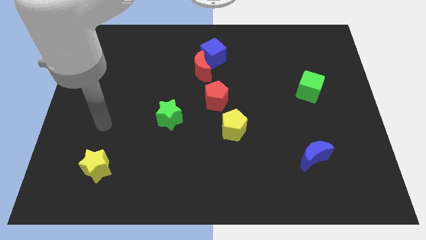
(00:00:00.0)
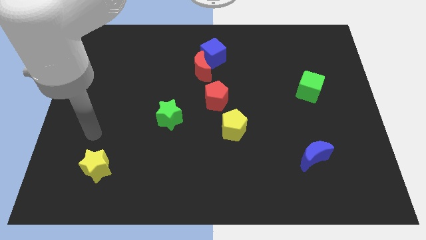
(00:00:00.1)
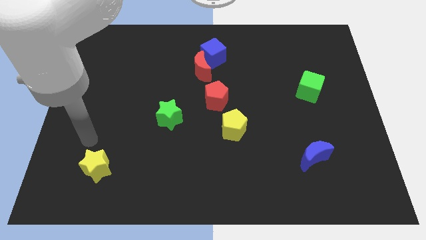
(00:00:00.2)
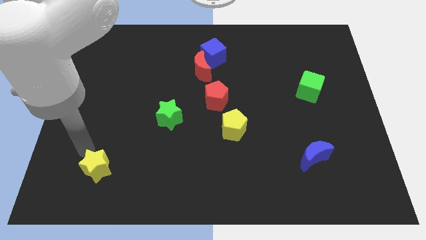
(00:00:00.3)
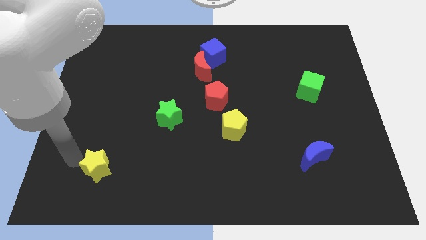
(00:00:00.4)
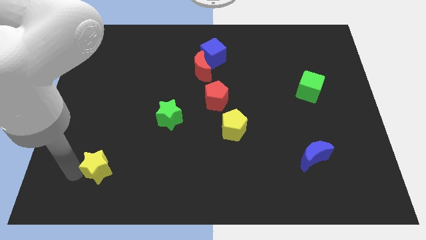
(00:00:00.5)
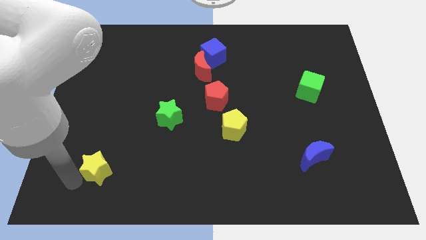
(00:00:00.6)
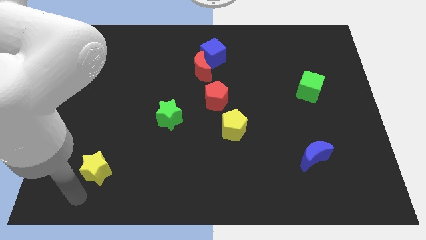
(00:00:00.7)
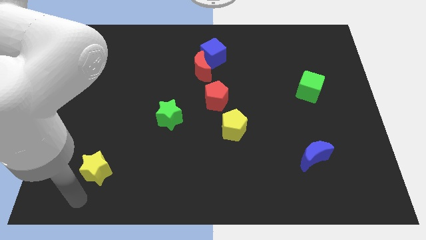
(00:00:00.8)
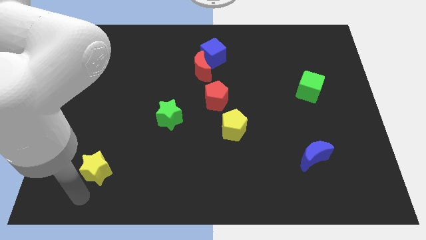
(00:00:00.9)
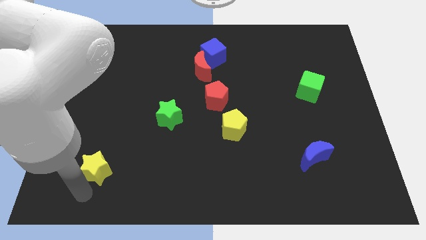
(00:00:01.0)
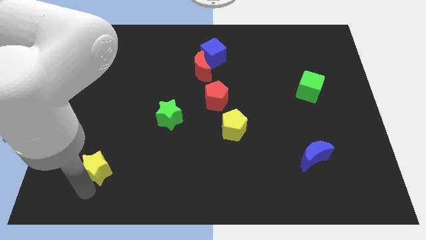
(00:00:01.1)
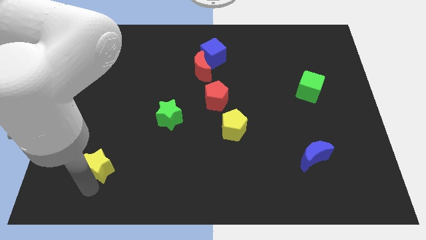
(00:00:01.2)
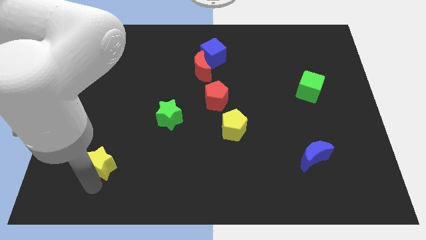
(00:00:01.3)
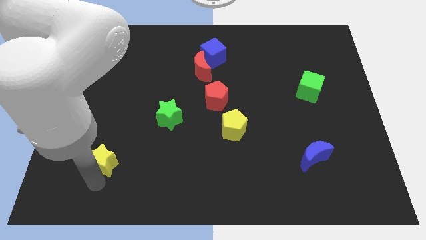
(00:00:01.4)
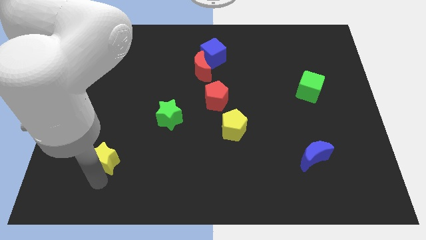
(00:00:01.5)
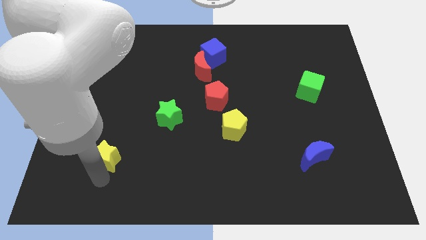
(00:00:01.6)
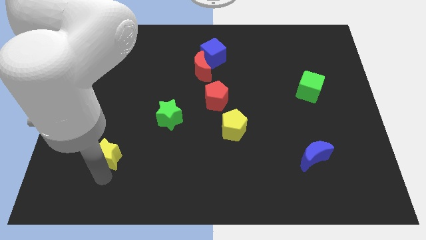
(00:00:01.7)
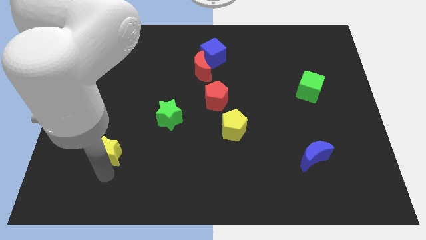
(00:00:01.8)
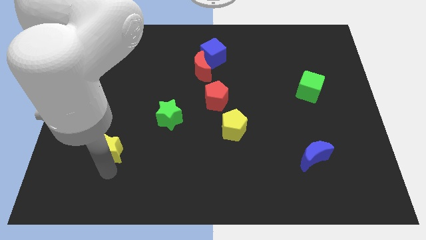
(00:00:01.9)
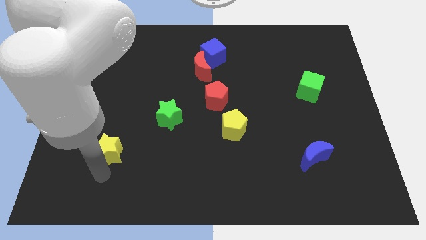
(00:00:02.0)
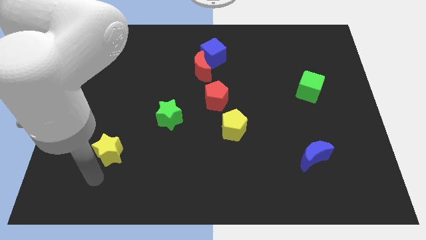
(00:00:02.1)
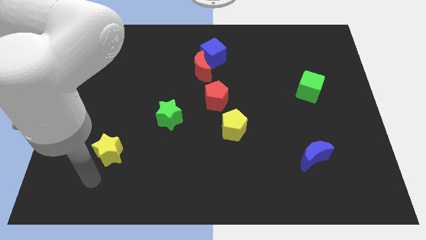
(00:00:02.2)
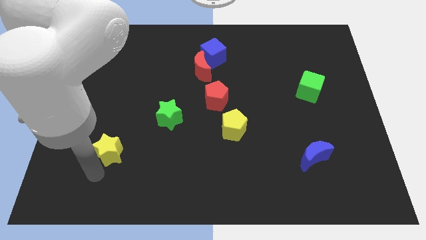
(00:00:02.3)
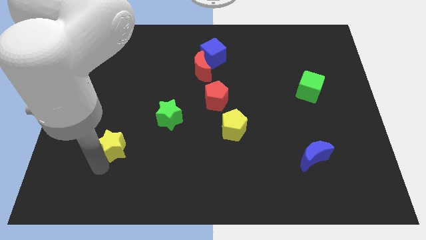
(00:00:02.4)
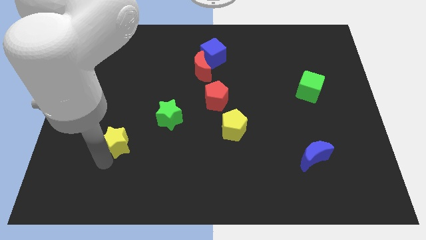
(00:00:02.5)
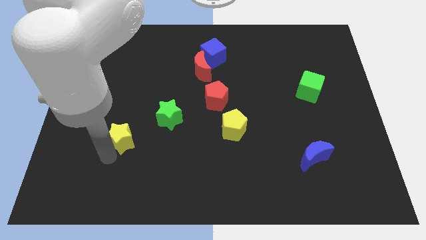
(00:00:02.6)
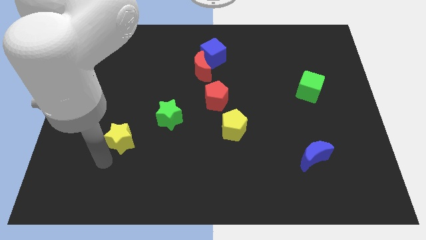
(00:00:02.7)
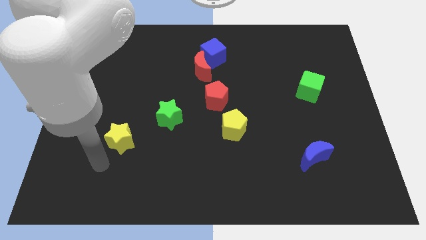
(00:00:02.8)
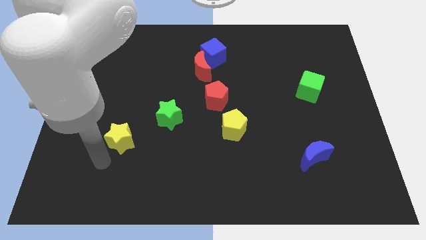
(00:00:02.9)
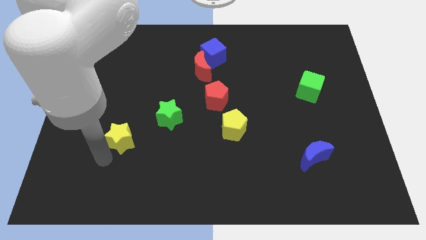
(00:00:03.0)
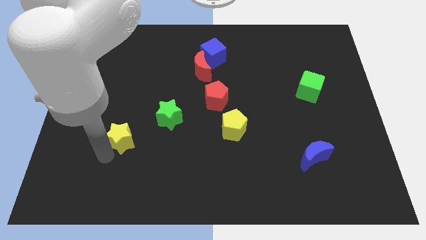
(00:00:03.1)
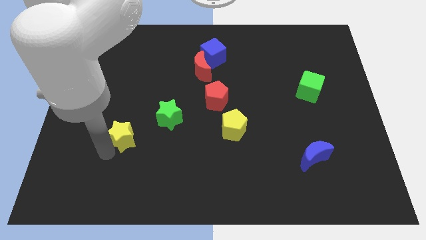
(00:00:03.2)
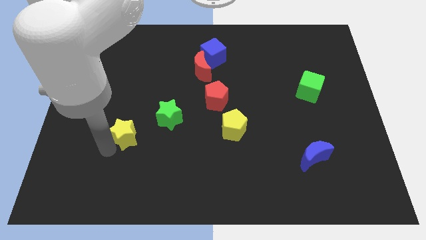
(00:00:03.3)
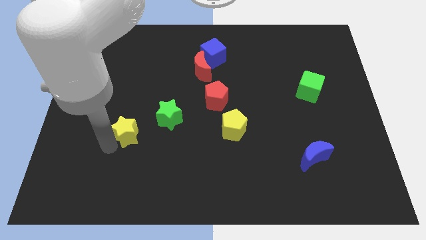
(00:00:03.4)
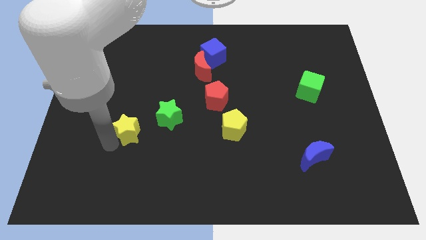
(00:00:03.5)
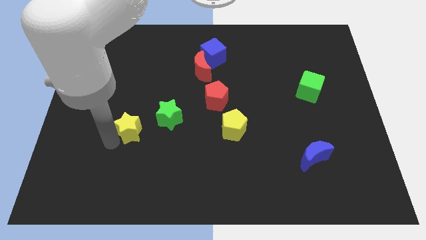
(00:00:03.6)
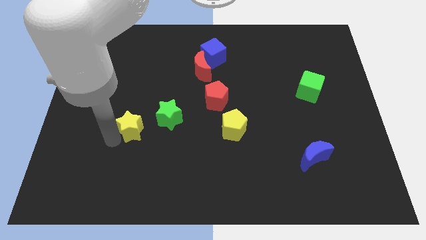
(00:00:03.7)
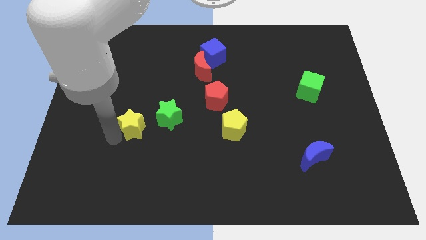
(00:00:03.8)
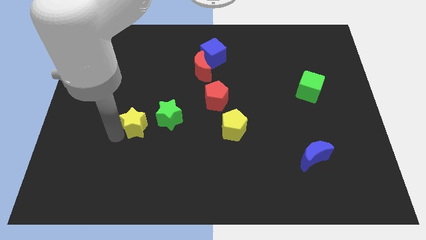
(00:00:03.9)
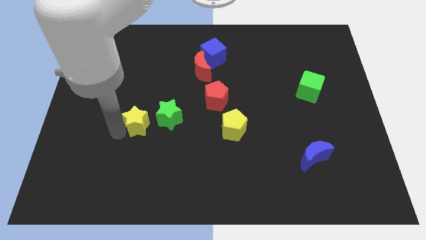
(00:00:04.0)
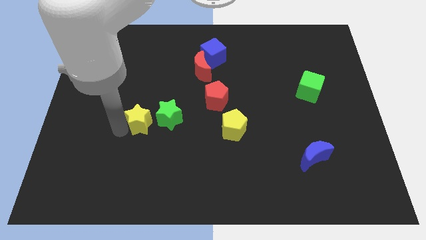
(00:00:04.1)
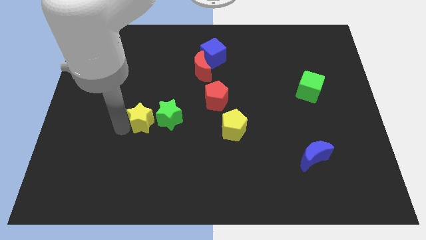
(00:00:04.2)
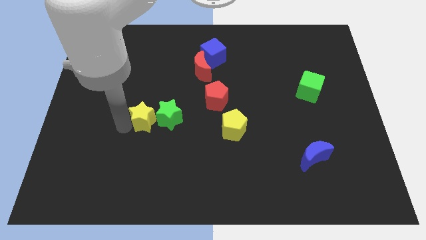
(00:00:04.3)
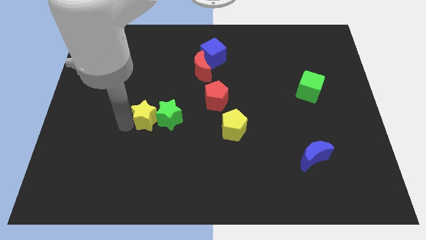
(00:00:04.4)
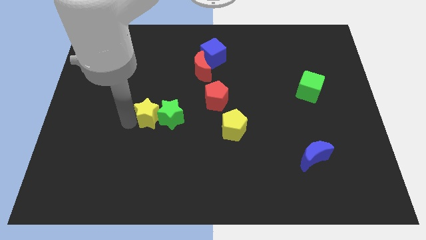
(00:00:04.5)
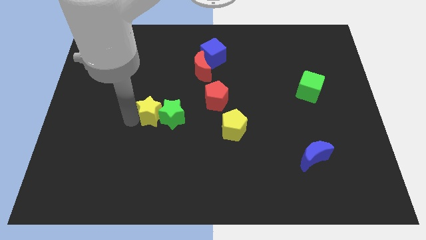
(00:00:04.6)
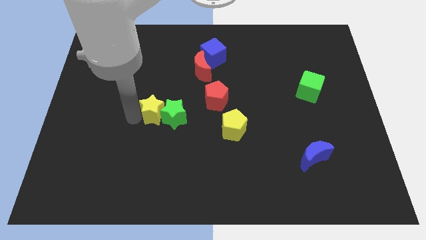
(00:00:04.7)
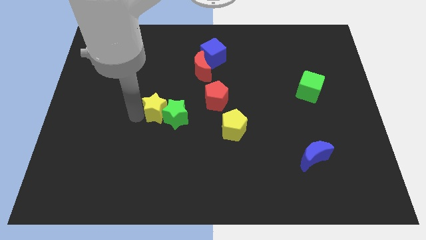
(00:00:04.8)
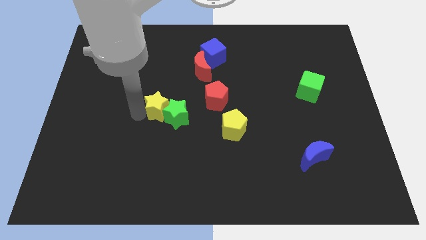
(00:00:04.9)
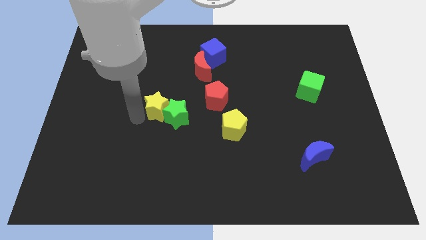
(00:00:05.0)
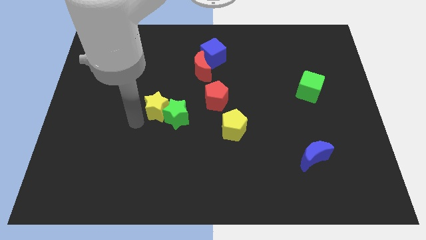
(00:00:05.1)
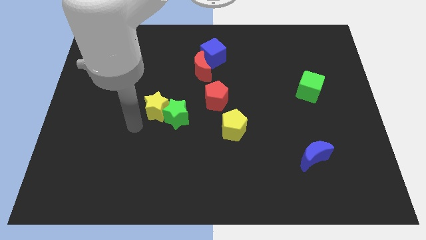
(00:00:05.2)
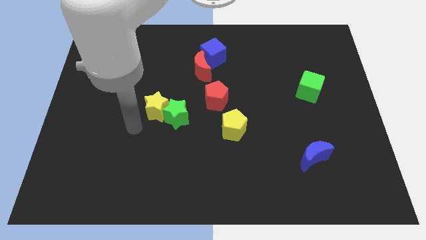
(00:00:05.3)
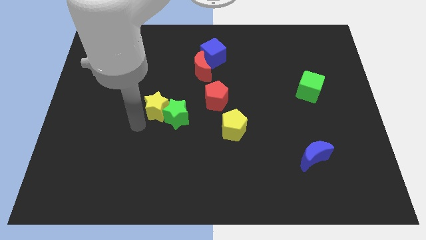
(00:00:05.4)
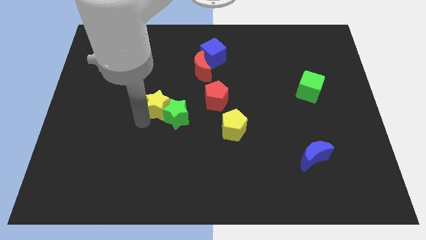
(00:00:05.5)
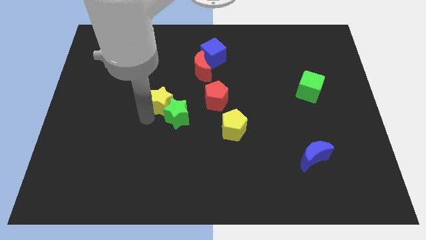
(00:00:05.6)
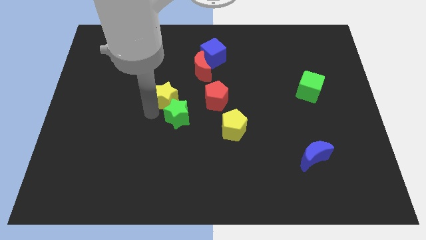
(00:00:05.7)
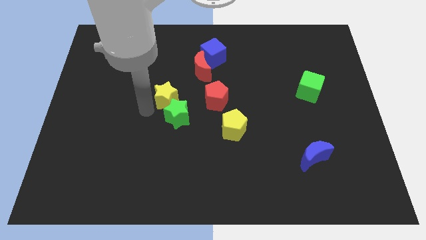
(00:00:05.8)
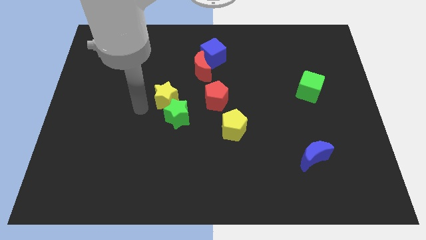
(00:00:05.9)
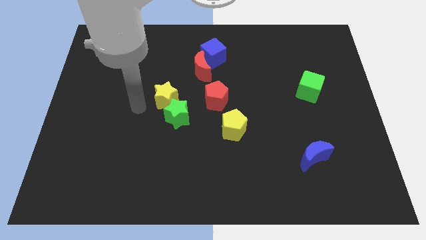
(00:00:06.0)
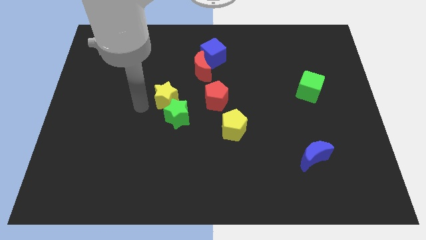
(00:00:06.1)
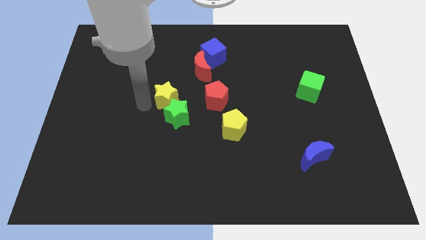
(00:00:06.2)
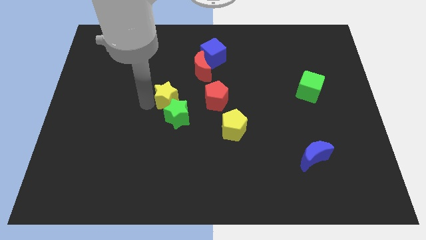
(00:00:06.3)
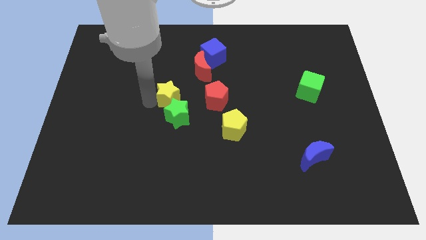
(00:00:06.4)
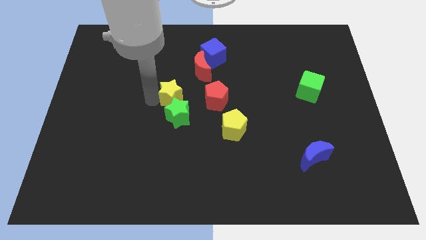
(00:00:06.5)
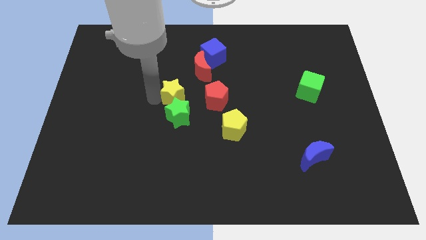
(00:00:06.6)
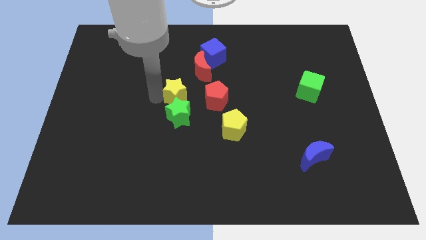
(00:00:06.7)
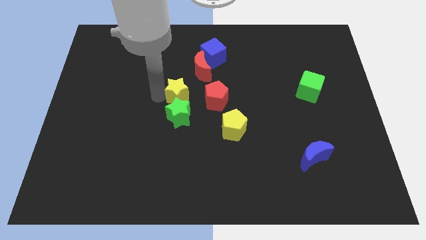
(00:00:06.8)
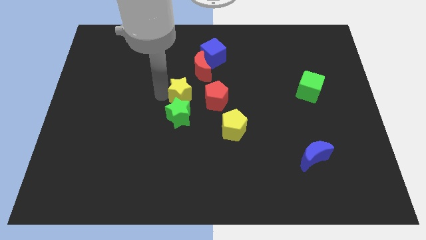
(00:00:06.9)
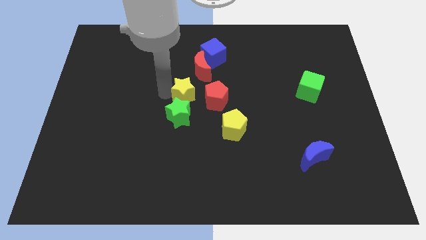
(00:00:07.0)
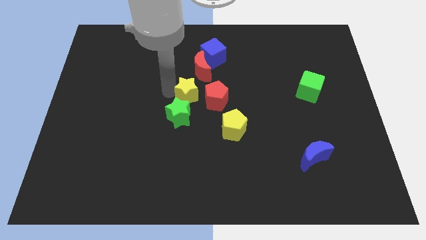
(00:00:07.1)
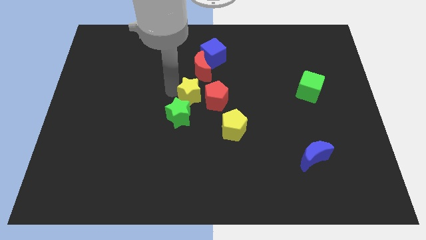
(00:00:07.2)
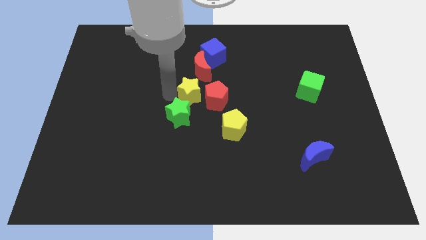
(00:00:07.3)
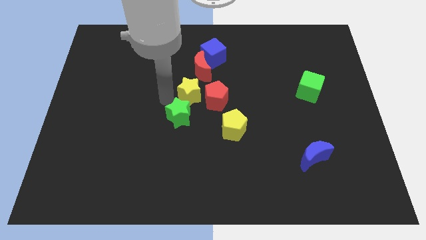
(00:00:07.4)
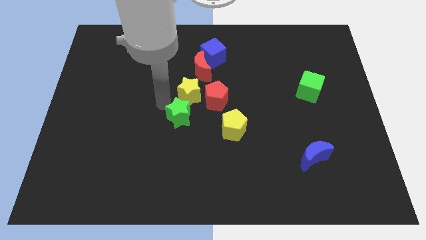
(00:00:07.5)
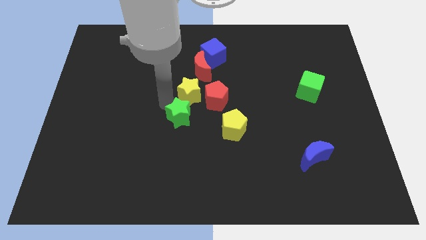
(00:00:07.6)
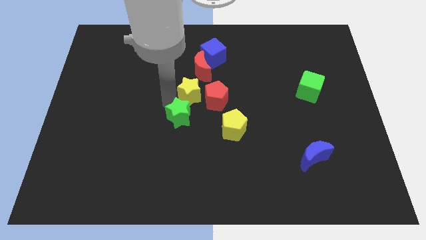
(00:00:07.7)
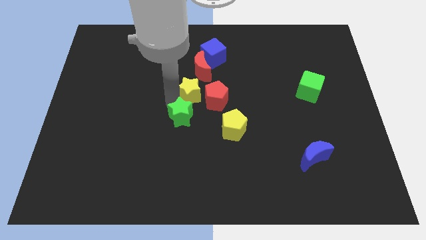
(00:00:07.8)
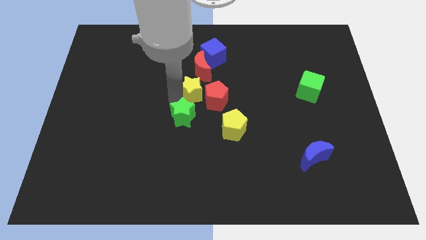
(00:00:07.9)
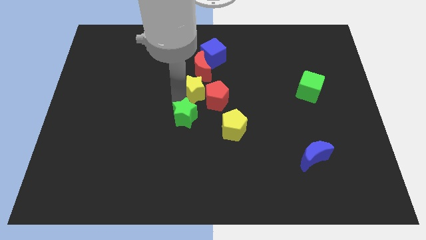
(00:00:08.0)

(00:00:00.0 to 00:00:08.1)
put the yellow star below the blue cube

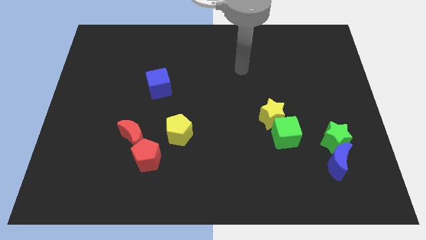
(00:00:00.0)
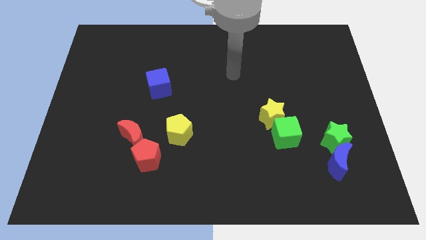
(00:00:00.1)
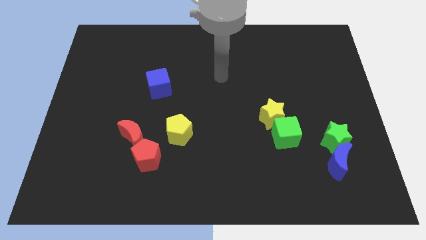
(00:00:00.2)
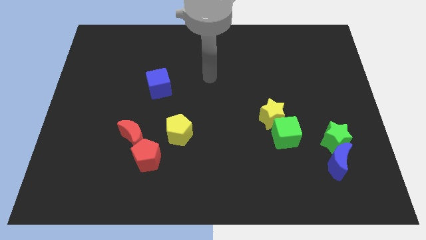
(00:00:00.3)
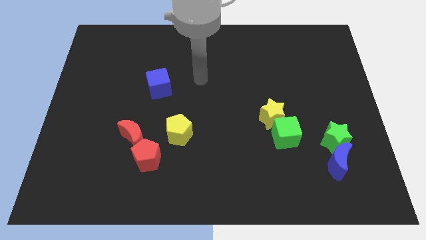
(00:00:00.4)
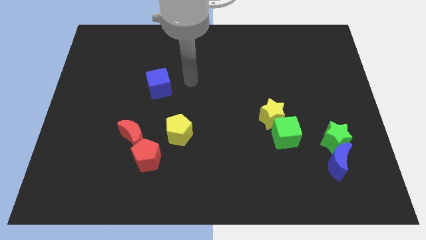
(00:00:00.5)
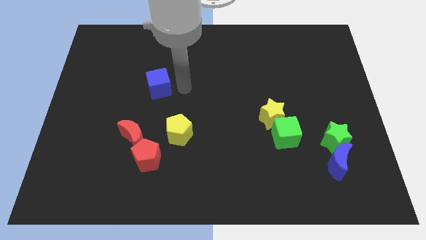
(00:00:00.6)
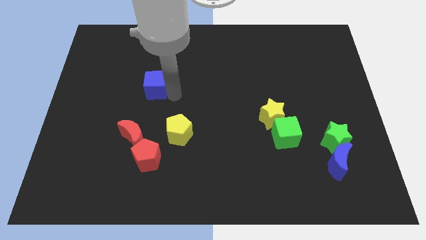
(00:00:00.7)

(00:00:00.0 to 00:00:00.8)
slide the red moon to the bottom of the blue cube
